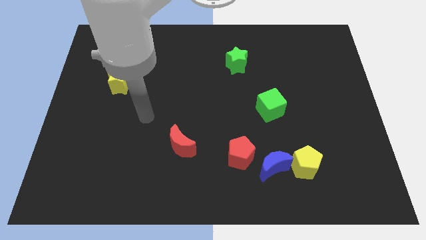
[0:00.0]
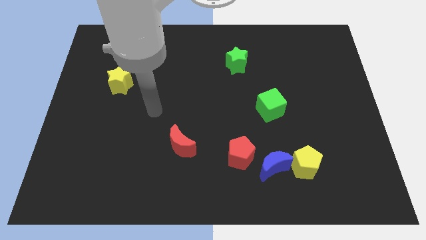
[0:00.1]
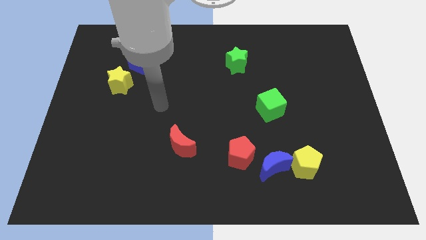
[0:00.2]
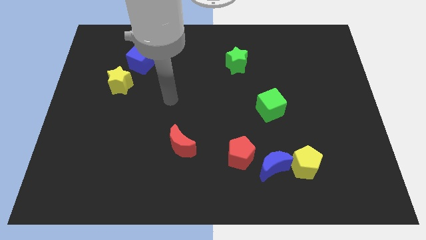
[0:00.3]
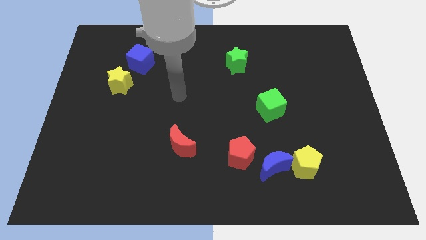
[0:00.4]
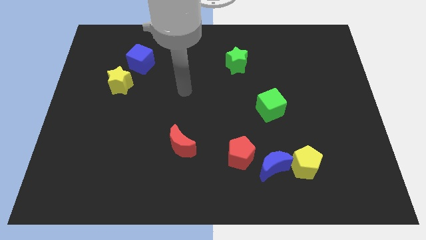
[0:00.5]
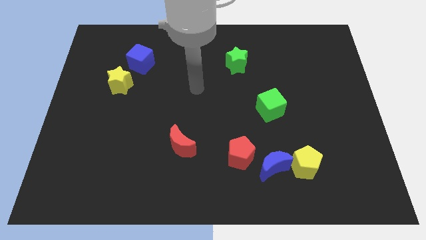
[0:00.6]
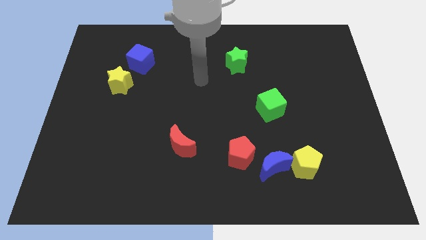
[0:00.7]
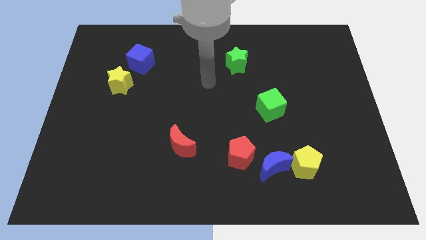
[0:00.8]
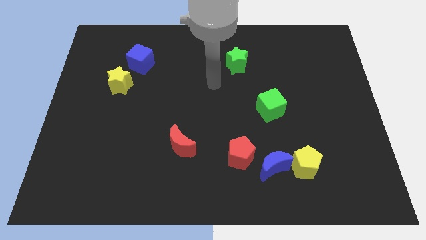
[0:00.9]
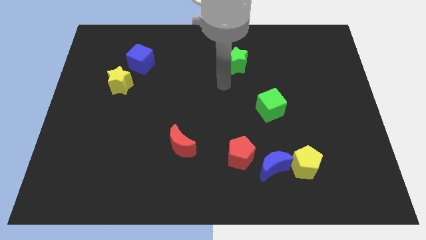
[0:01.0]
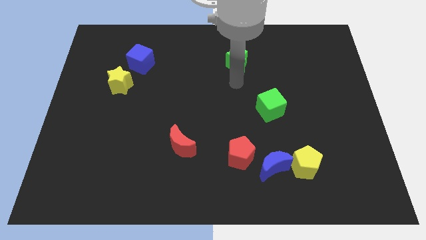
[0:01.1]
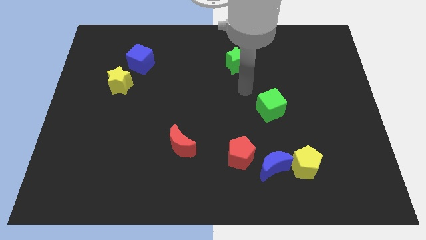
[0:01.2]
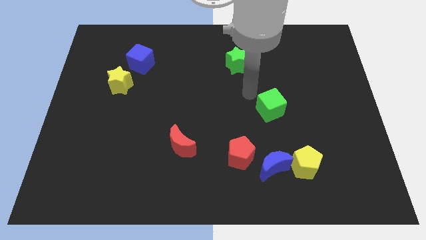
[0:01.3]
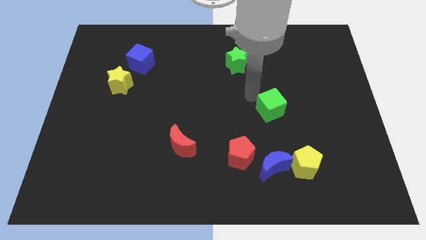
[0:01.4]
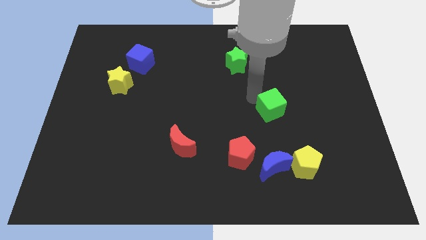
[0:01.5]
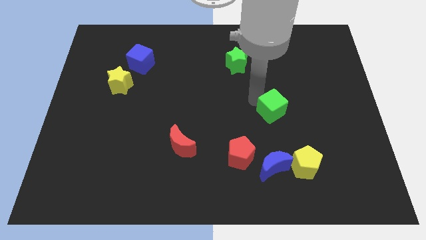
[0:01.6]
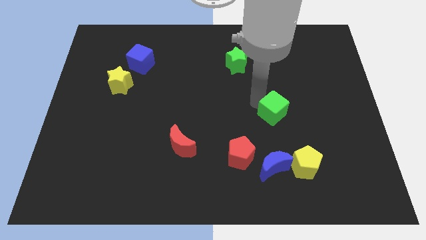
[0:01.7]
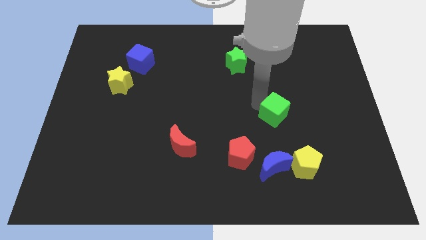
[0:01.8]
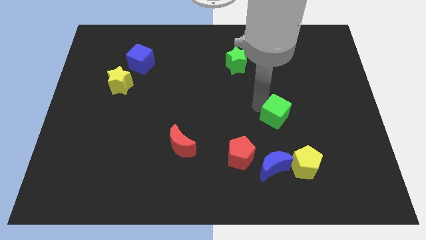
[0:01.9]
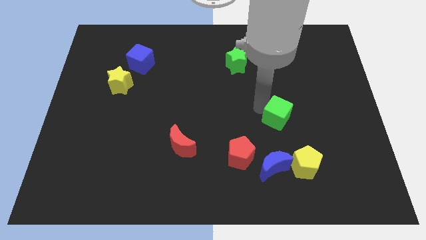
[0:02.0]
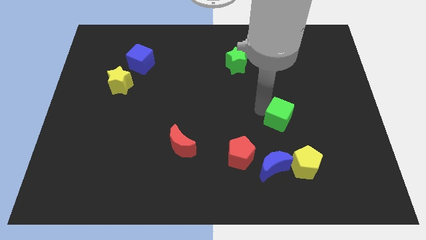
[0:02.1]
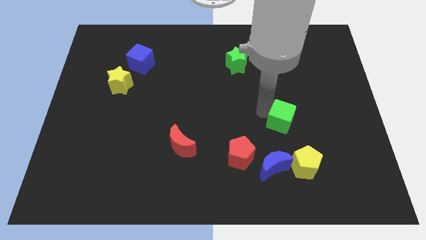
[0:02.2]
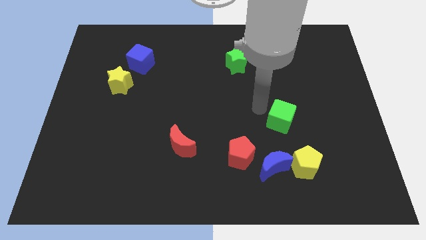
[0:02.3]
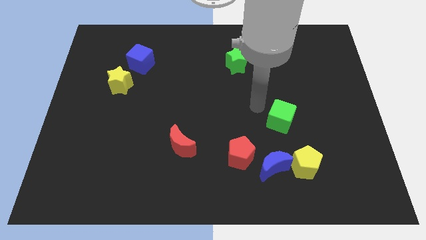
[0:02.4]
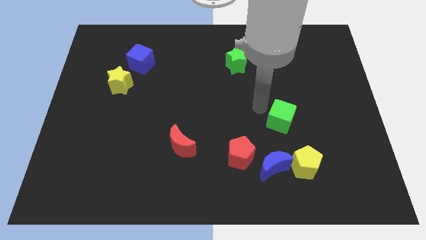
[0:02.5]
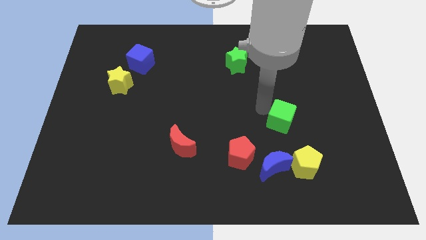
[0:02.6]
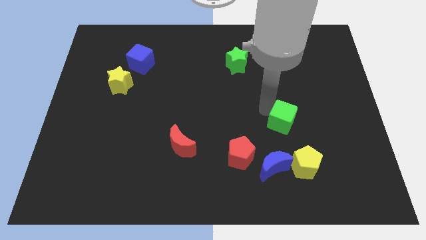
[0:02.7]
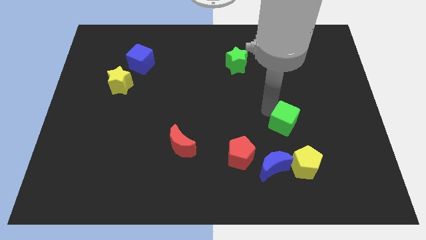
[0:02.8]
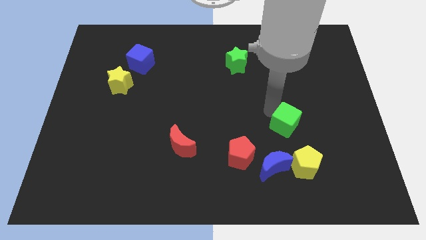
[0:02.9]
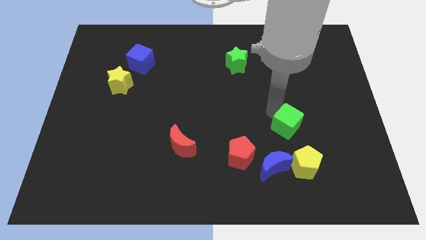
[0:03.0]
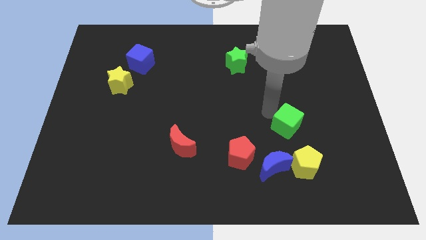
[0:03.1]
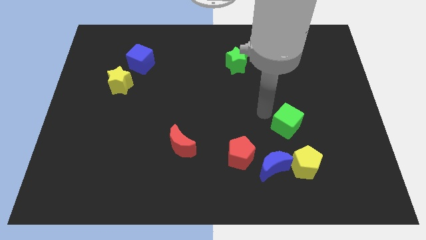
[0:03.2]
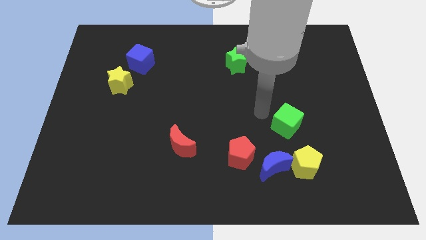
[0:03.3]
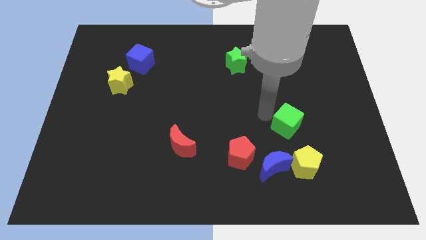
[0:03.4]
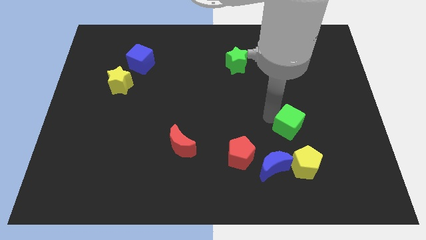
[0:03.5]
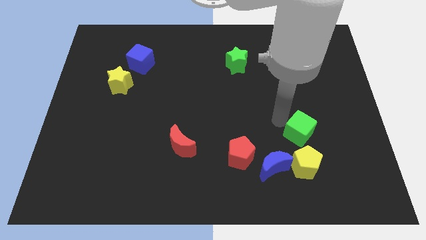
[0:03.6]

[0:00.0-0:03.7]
push the green cube somewhat downwards and then right

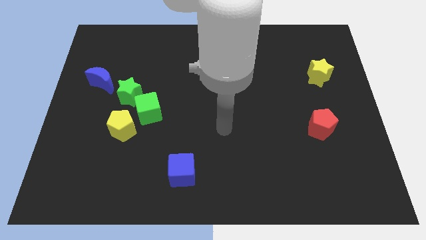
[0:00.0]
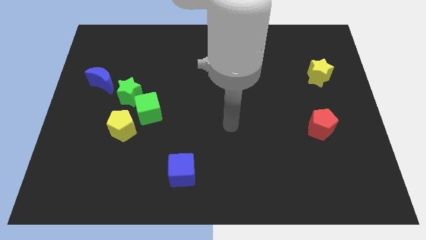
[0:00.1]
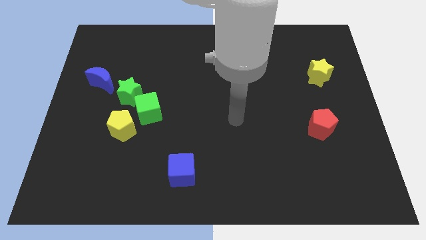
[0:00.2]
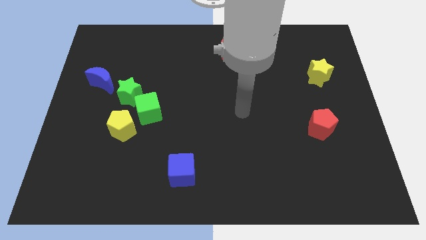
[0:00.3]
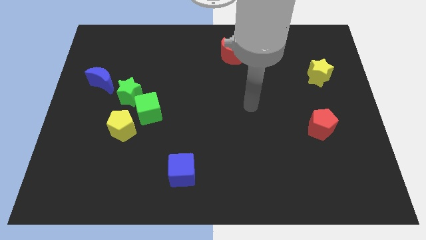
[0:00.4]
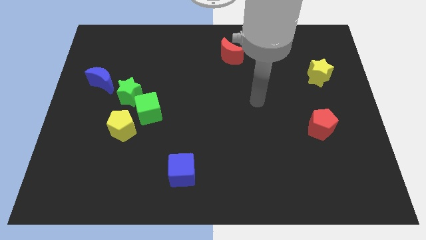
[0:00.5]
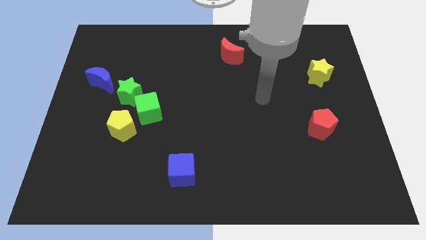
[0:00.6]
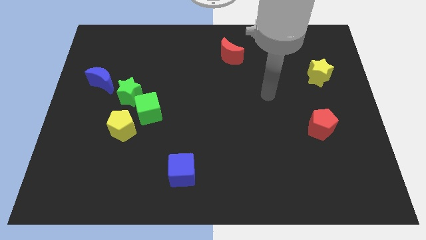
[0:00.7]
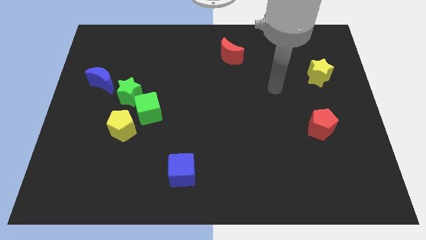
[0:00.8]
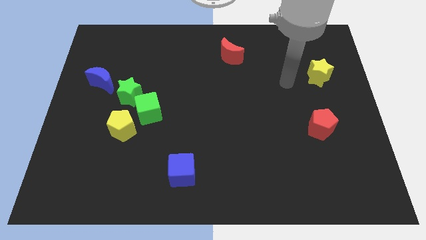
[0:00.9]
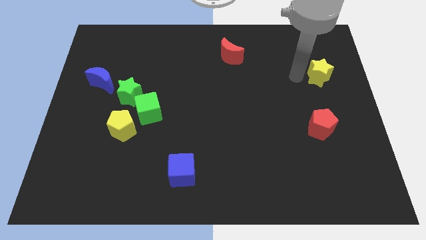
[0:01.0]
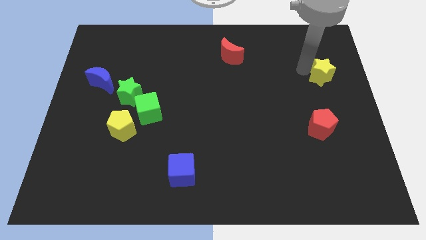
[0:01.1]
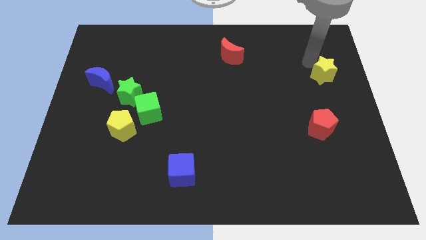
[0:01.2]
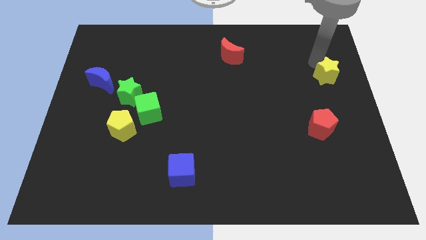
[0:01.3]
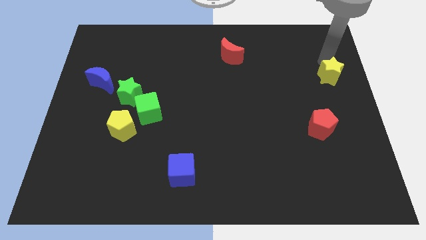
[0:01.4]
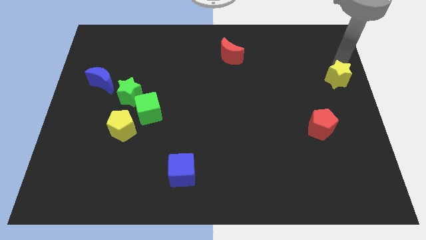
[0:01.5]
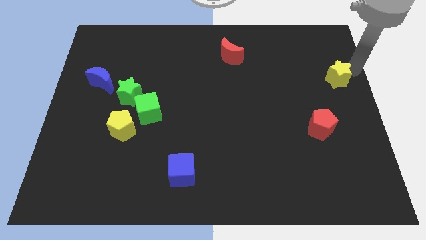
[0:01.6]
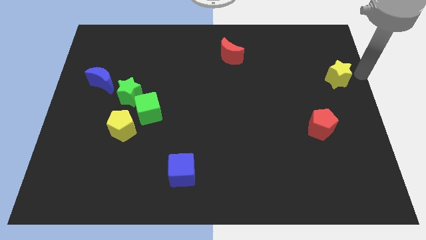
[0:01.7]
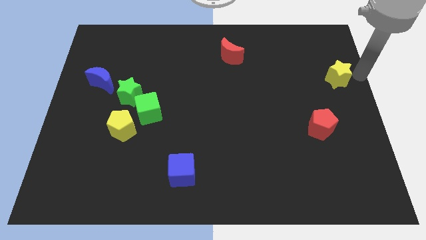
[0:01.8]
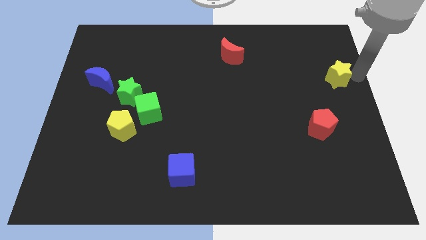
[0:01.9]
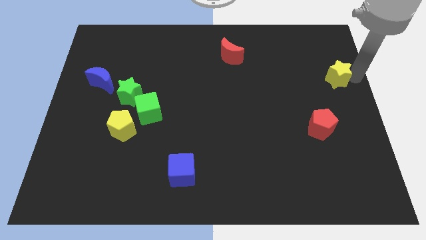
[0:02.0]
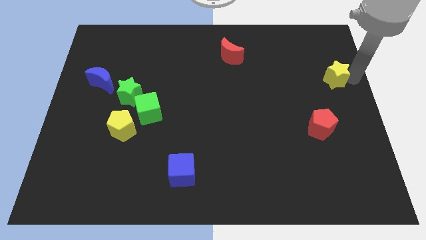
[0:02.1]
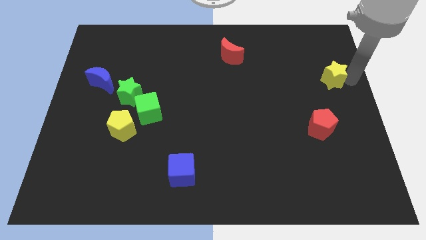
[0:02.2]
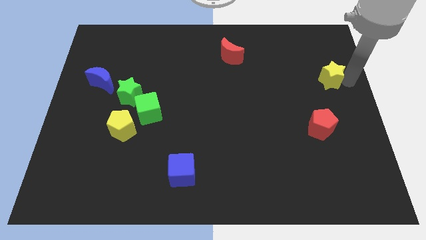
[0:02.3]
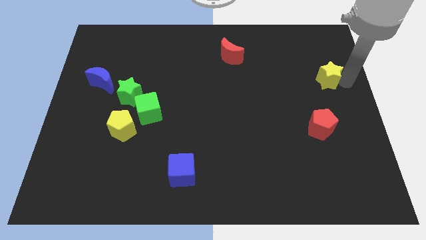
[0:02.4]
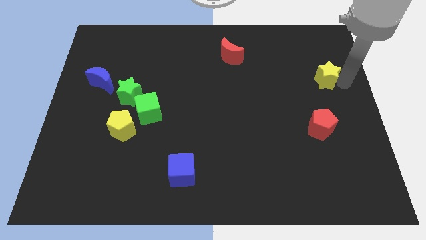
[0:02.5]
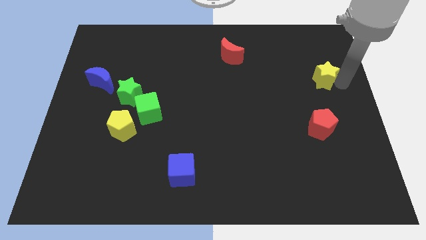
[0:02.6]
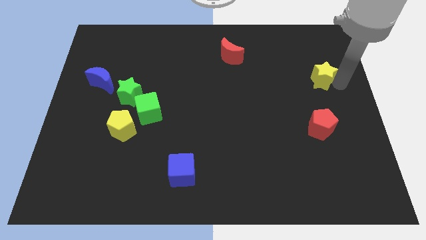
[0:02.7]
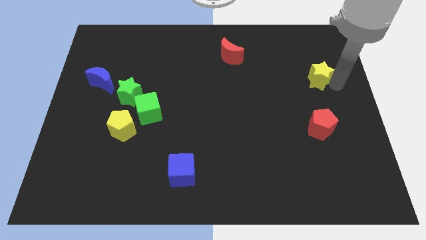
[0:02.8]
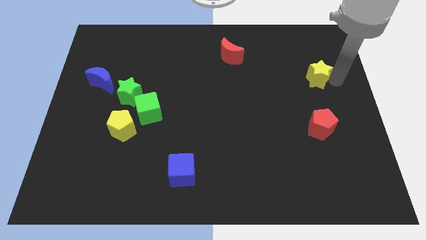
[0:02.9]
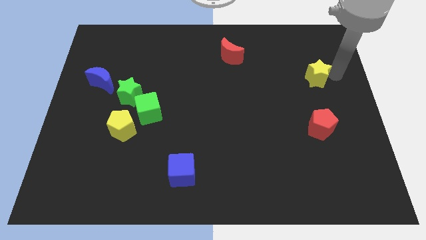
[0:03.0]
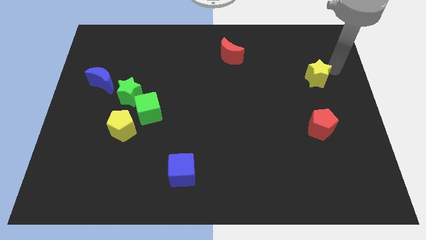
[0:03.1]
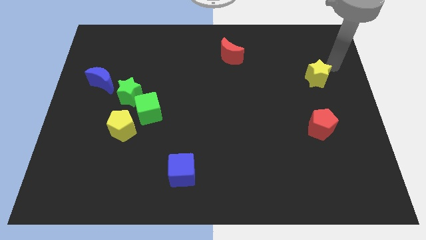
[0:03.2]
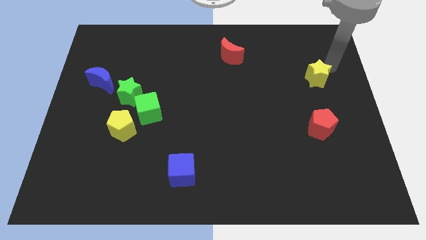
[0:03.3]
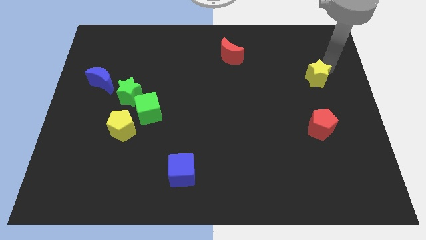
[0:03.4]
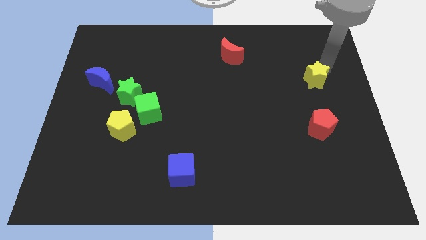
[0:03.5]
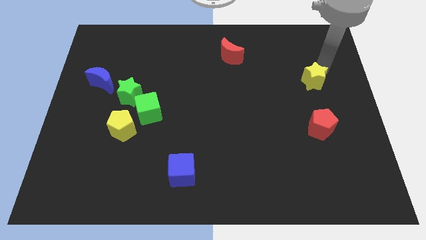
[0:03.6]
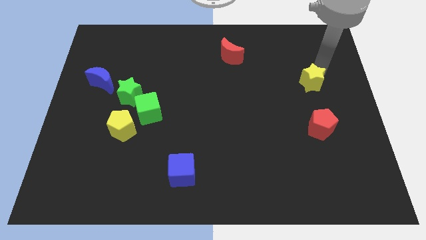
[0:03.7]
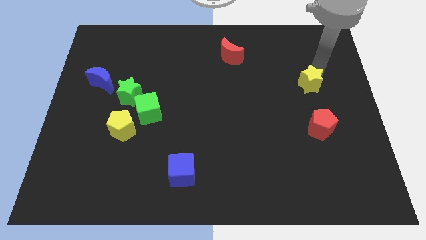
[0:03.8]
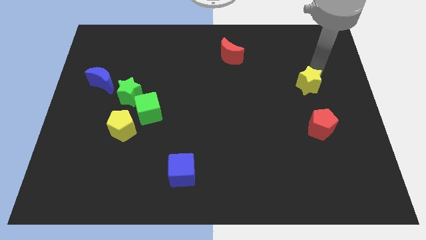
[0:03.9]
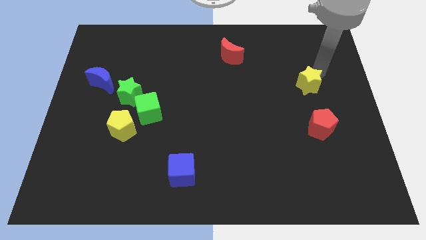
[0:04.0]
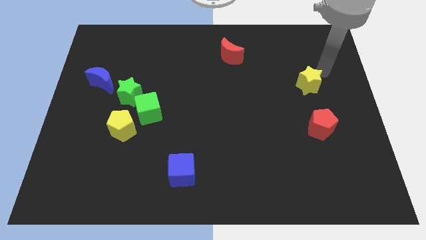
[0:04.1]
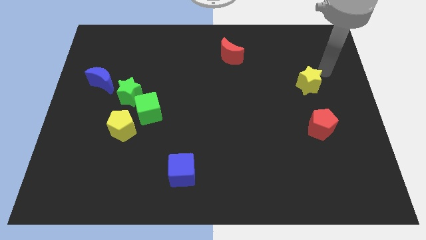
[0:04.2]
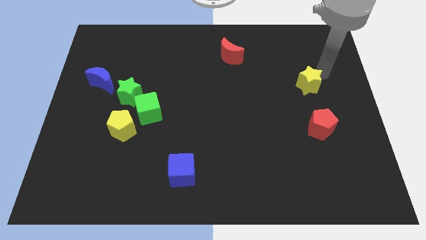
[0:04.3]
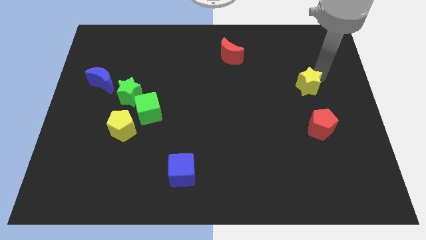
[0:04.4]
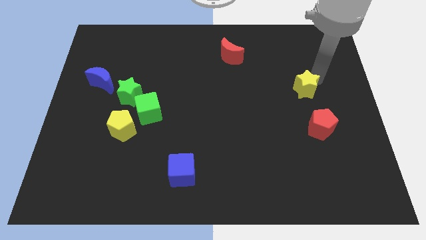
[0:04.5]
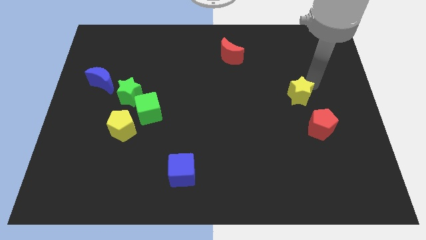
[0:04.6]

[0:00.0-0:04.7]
slightly slide the yellow star down and left
